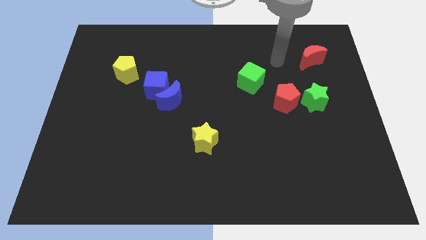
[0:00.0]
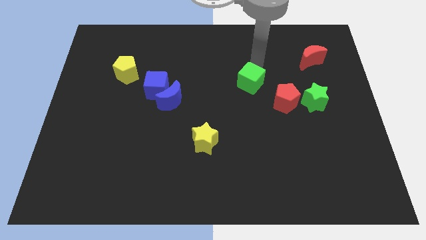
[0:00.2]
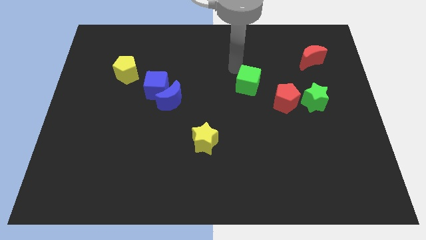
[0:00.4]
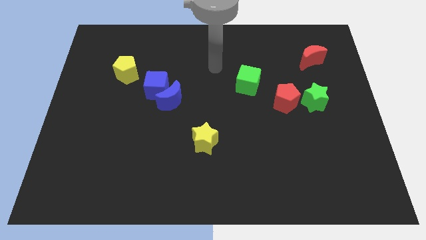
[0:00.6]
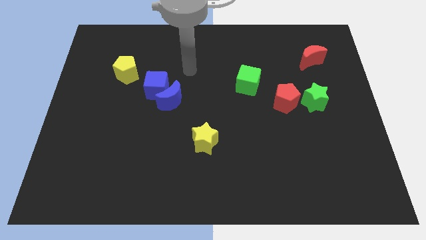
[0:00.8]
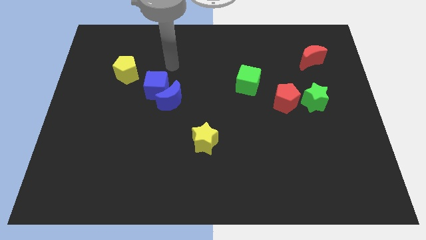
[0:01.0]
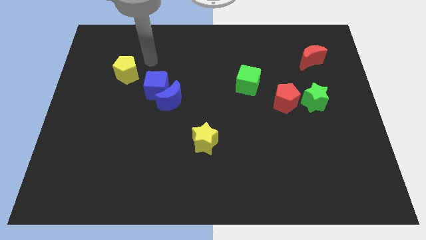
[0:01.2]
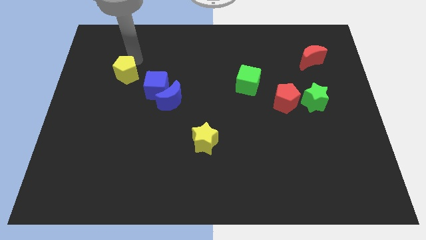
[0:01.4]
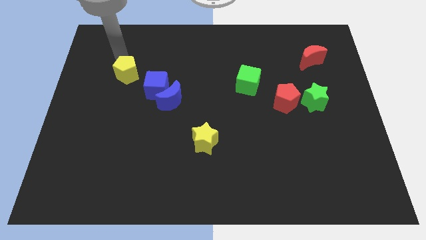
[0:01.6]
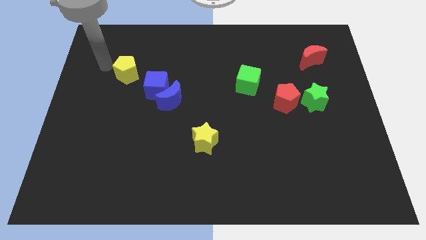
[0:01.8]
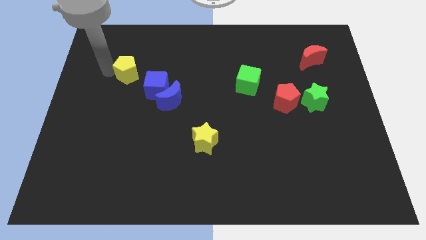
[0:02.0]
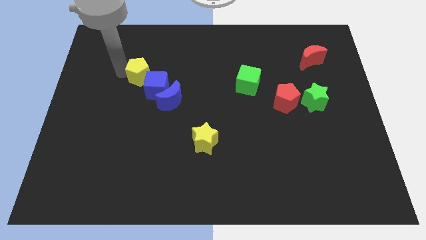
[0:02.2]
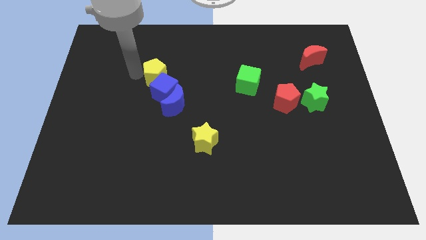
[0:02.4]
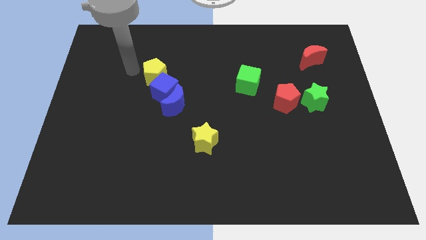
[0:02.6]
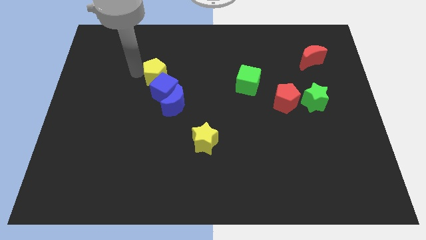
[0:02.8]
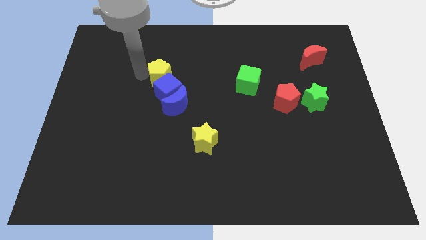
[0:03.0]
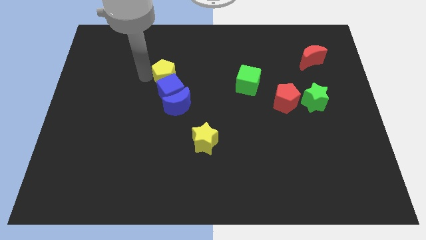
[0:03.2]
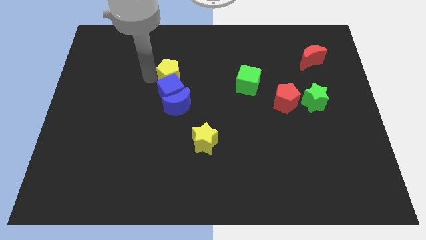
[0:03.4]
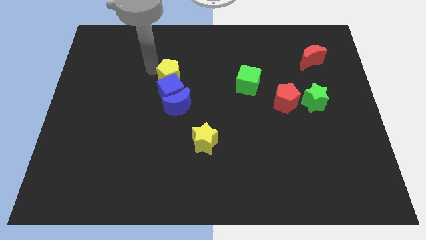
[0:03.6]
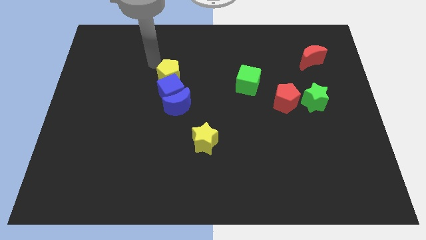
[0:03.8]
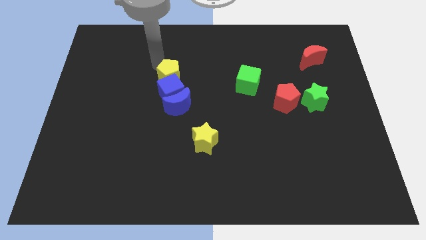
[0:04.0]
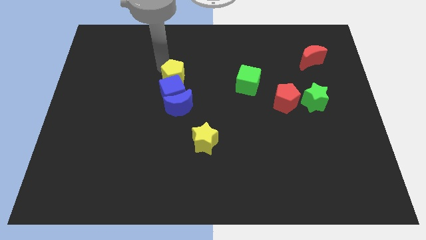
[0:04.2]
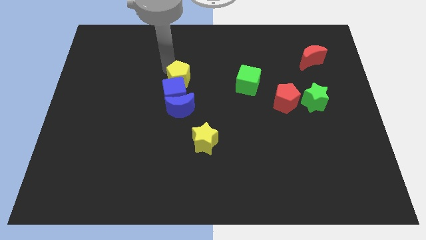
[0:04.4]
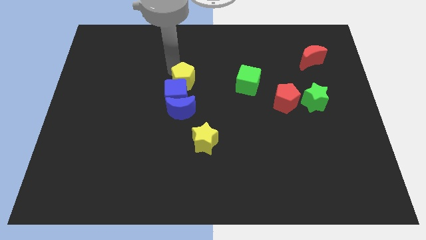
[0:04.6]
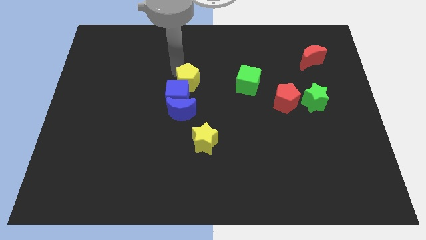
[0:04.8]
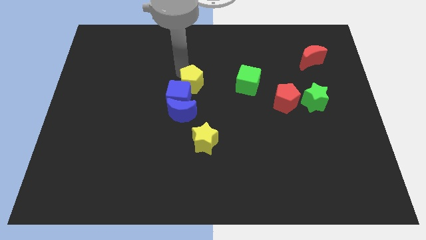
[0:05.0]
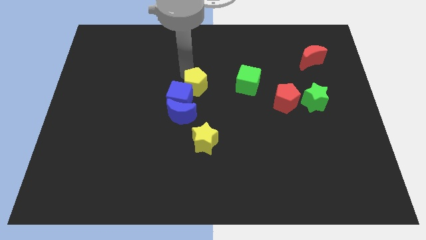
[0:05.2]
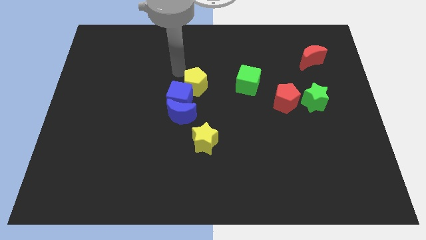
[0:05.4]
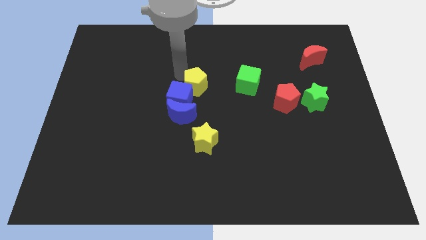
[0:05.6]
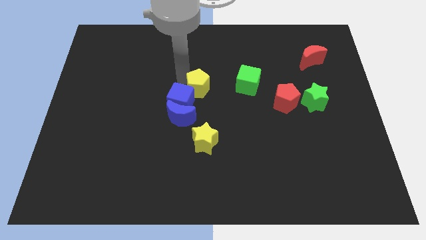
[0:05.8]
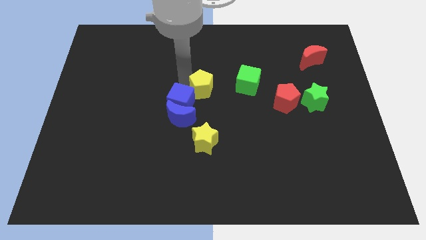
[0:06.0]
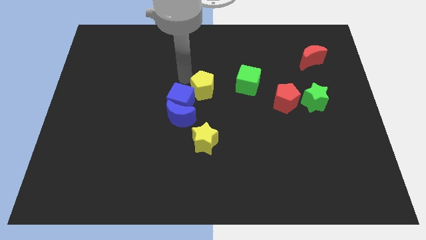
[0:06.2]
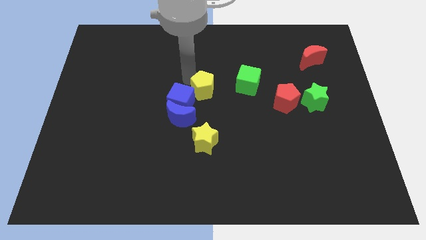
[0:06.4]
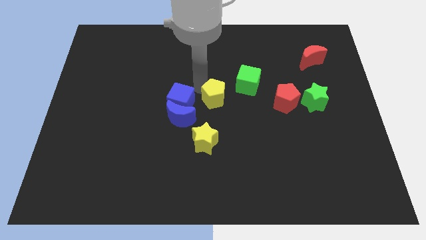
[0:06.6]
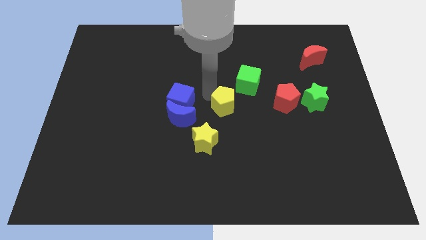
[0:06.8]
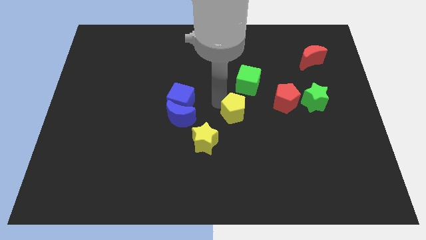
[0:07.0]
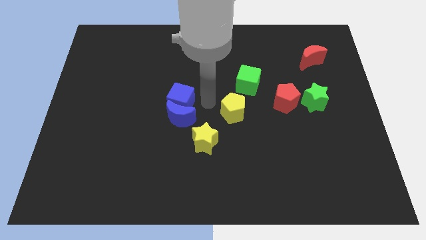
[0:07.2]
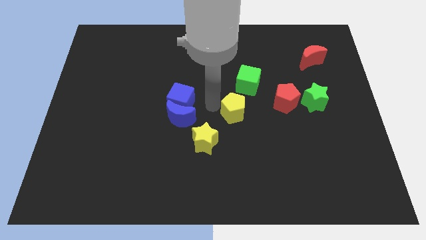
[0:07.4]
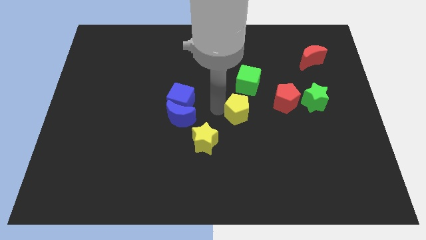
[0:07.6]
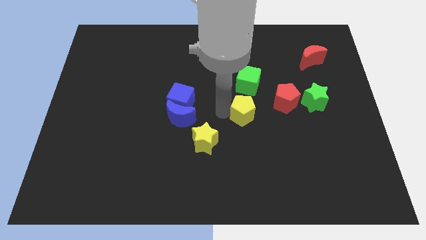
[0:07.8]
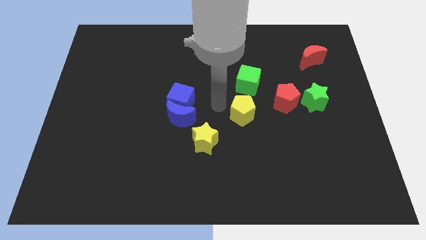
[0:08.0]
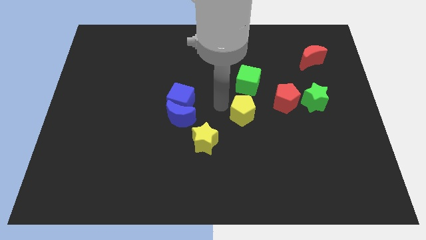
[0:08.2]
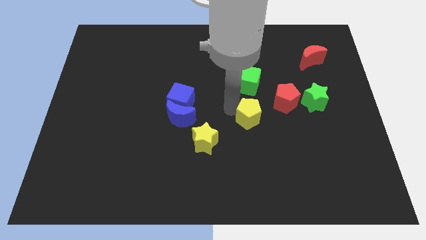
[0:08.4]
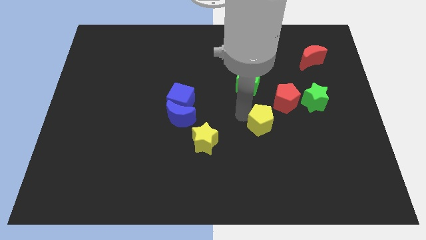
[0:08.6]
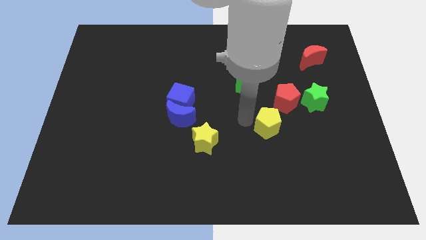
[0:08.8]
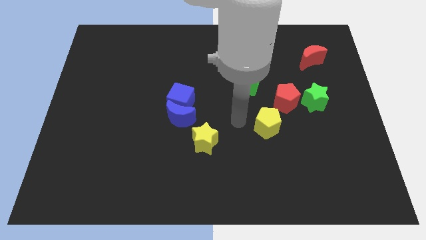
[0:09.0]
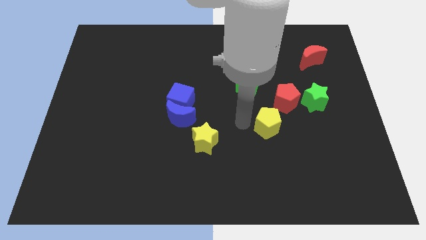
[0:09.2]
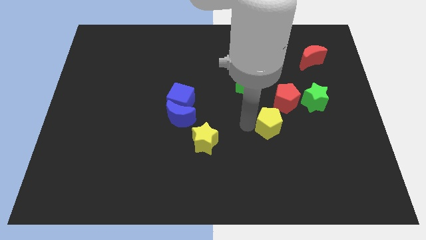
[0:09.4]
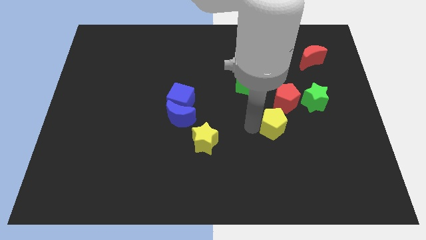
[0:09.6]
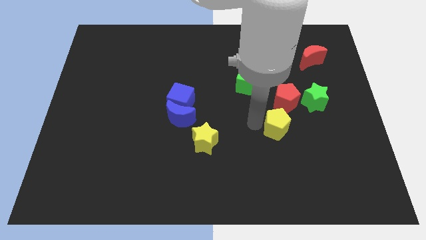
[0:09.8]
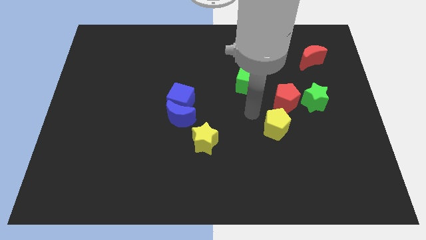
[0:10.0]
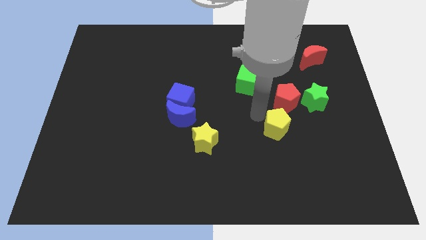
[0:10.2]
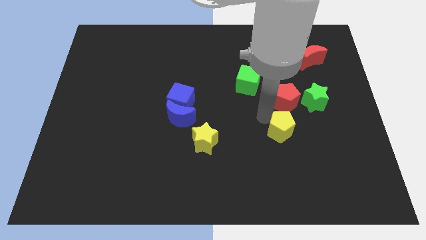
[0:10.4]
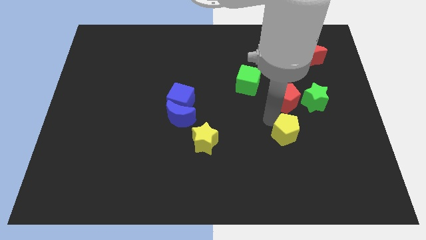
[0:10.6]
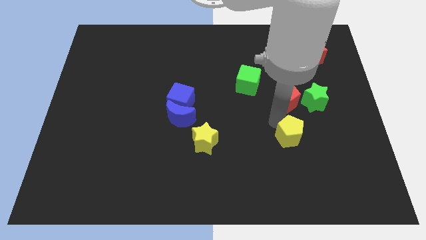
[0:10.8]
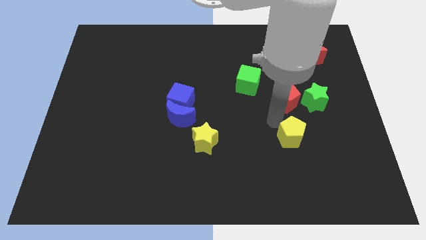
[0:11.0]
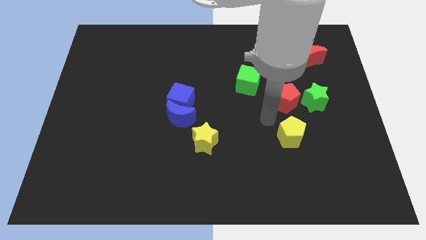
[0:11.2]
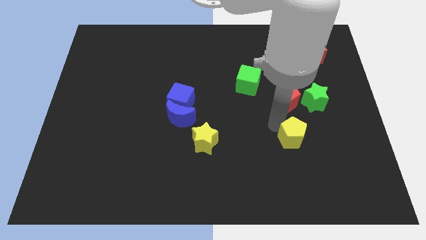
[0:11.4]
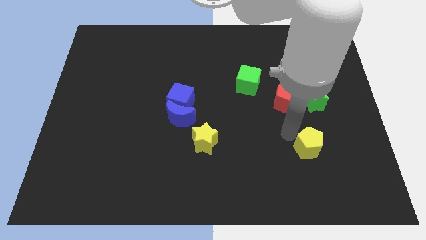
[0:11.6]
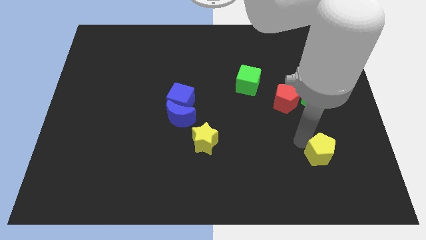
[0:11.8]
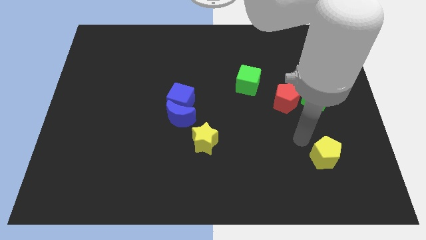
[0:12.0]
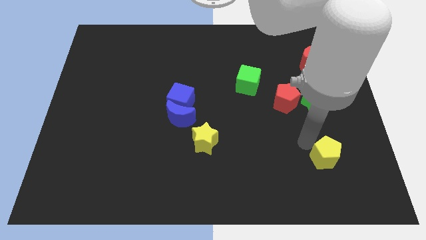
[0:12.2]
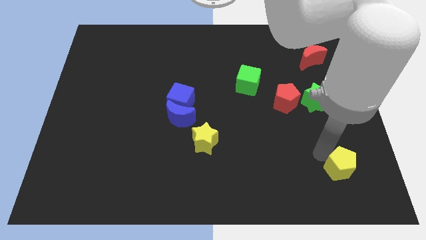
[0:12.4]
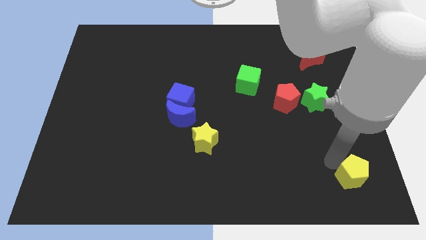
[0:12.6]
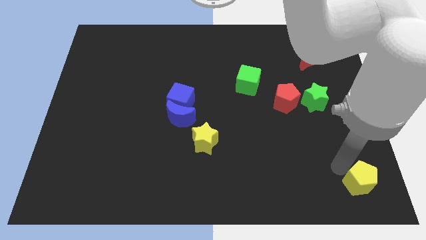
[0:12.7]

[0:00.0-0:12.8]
put the yellow pentagon to the lower right corner
